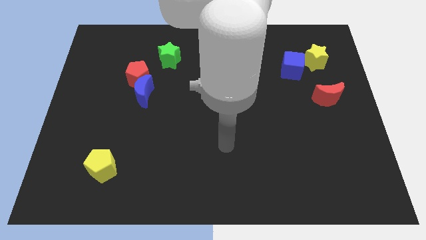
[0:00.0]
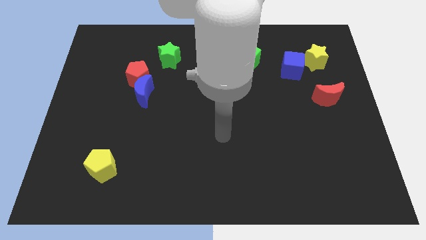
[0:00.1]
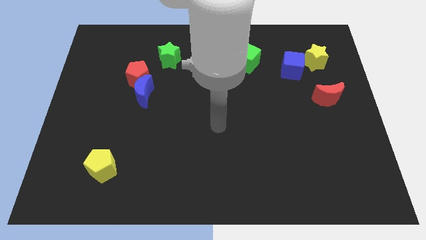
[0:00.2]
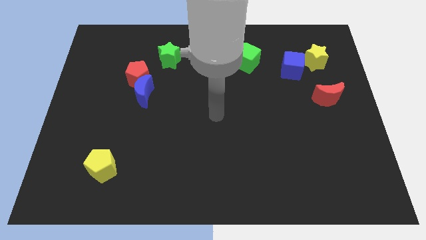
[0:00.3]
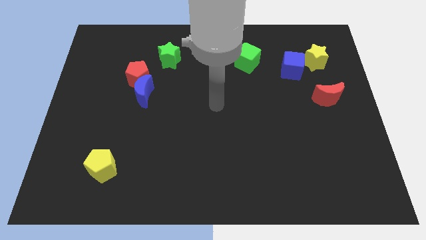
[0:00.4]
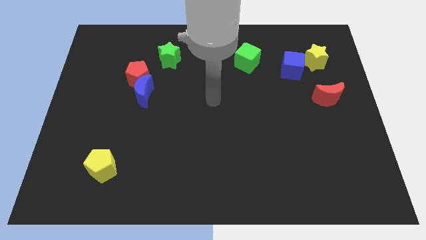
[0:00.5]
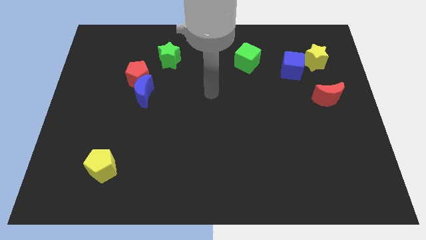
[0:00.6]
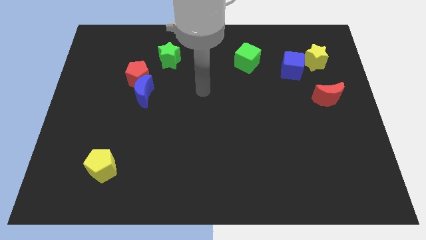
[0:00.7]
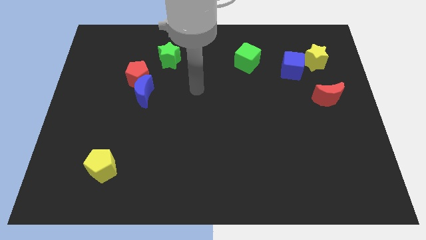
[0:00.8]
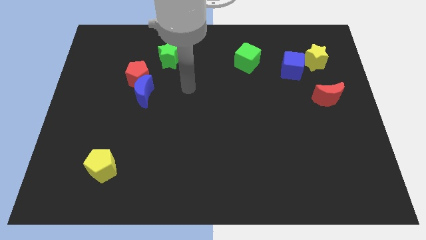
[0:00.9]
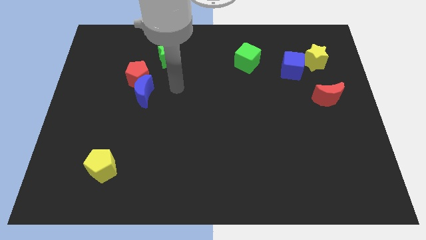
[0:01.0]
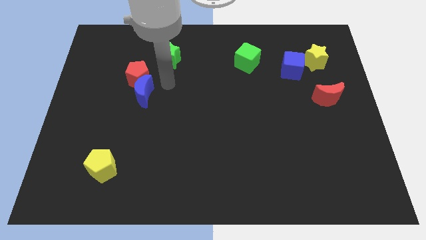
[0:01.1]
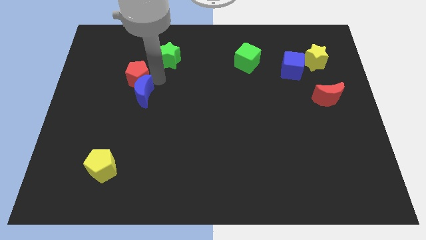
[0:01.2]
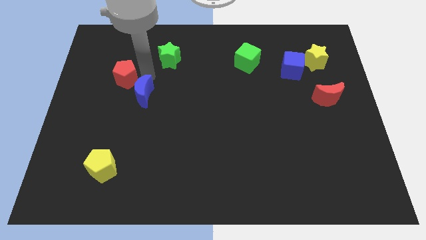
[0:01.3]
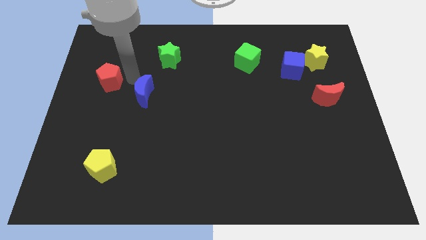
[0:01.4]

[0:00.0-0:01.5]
separate the blue moon from the red pentagon

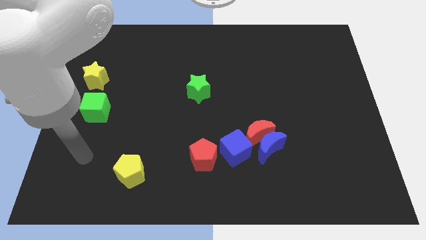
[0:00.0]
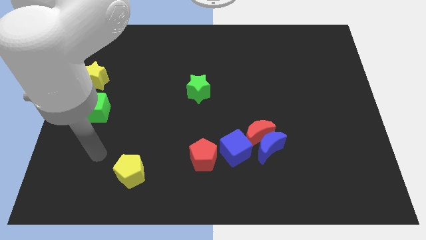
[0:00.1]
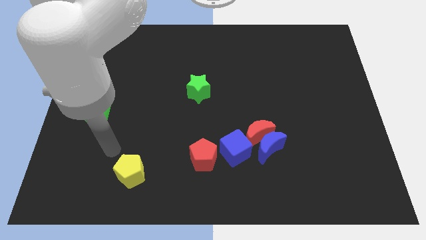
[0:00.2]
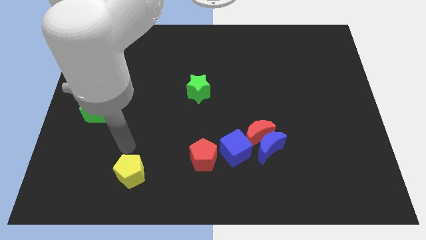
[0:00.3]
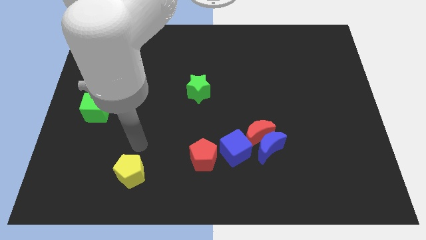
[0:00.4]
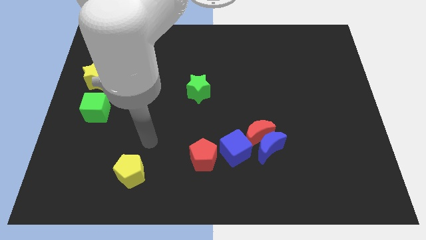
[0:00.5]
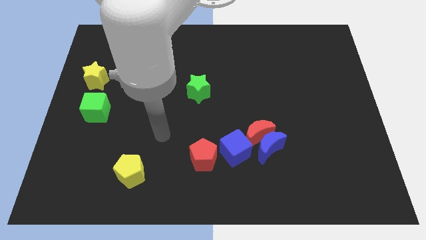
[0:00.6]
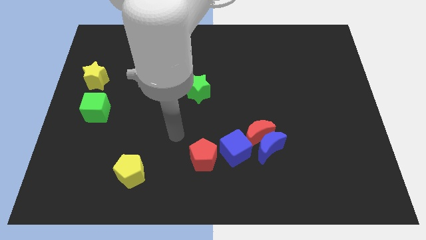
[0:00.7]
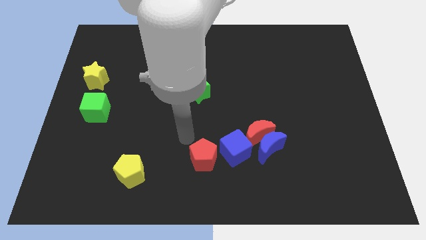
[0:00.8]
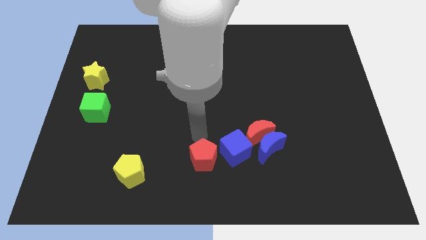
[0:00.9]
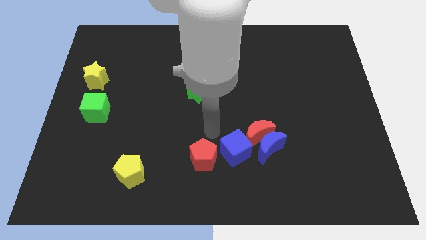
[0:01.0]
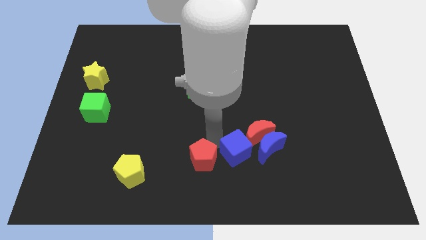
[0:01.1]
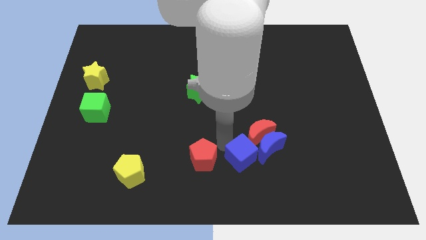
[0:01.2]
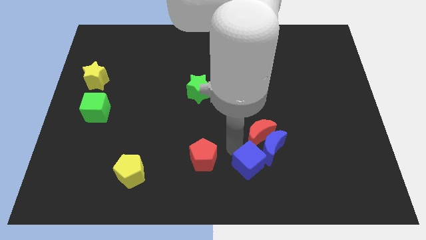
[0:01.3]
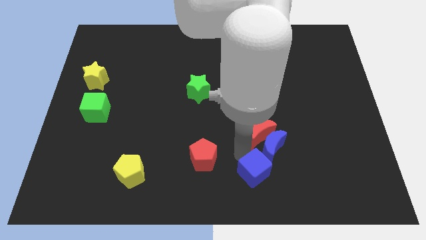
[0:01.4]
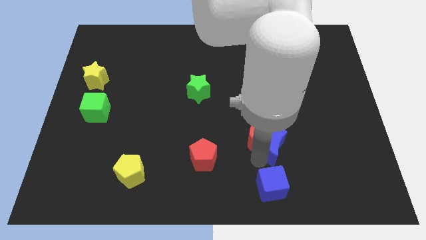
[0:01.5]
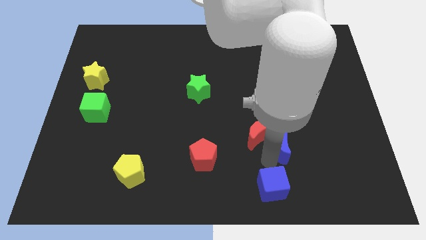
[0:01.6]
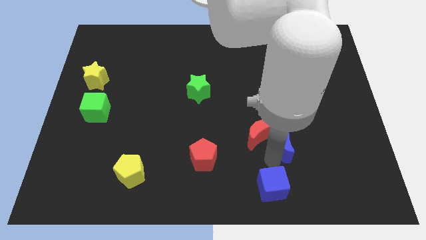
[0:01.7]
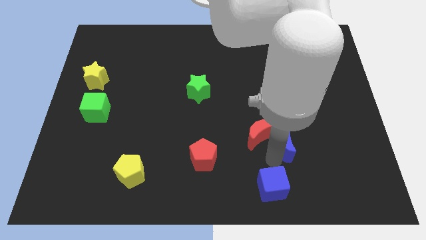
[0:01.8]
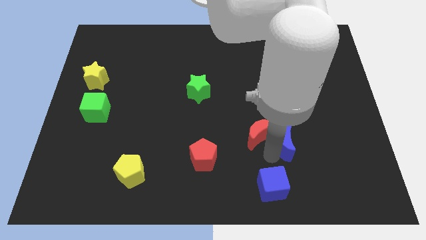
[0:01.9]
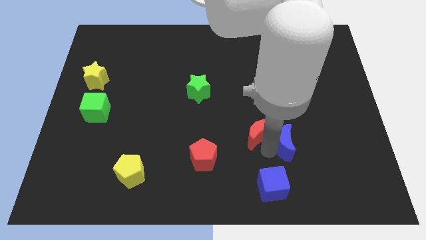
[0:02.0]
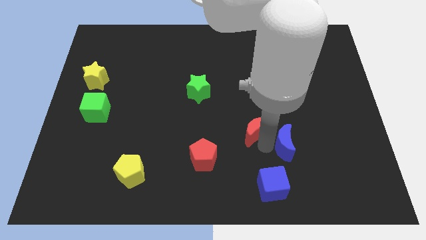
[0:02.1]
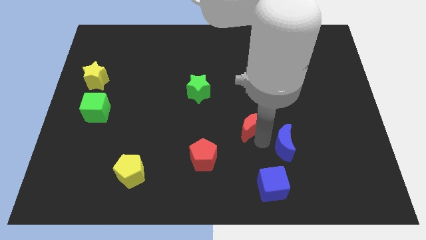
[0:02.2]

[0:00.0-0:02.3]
pull the red moon apart from the blue moon and blue cube

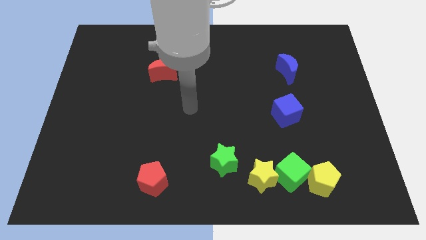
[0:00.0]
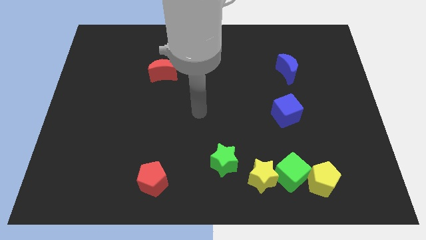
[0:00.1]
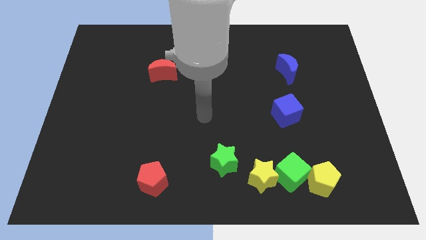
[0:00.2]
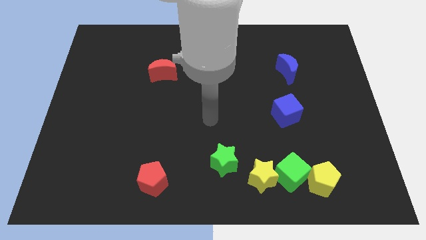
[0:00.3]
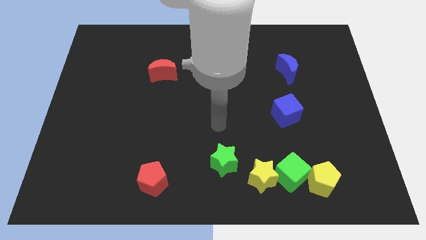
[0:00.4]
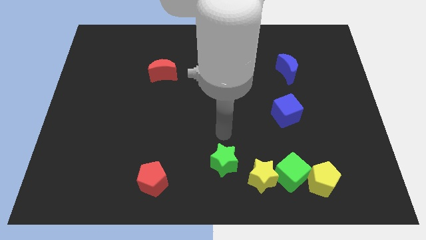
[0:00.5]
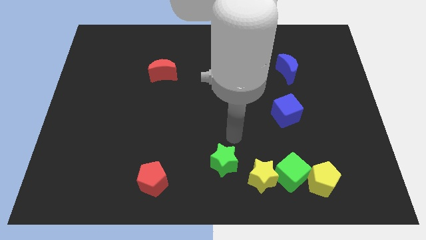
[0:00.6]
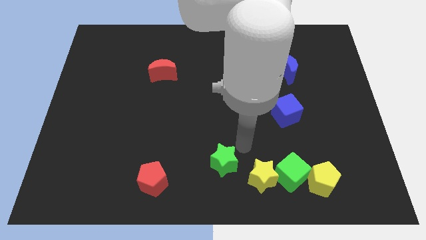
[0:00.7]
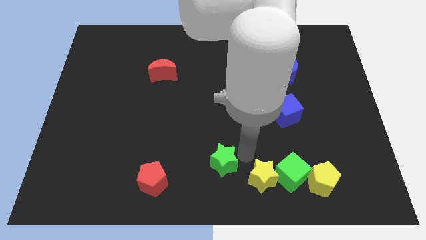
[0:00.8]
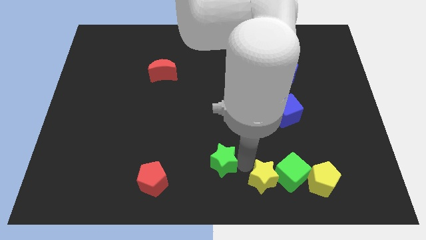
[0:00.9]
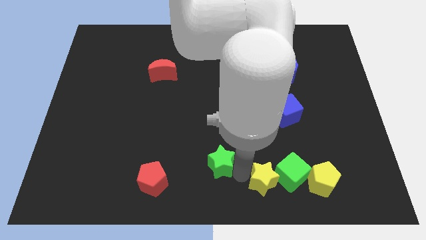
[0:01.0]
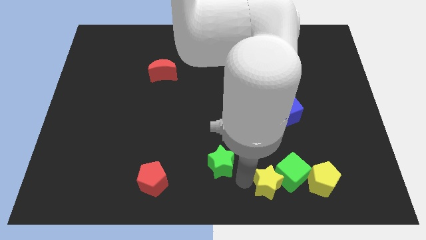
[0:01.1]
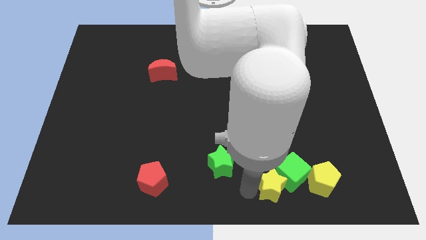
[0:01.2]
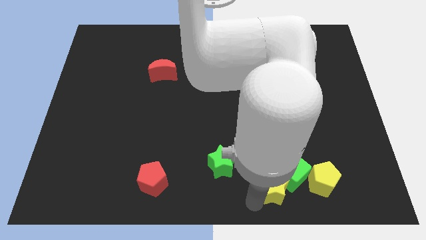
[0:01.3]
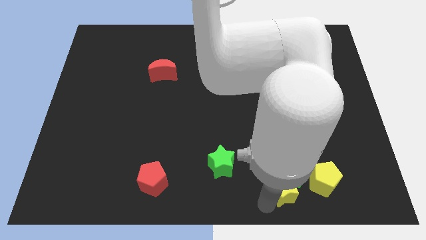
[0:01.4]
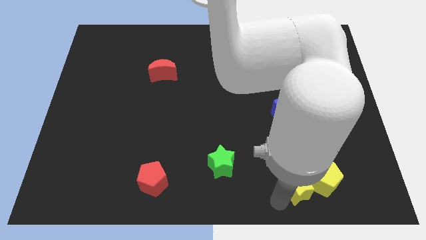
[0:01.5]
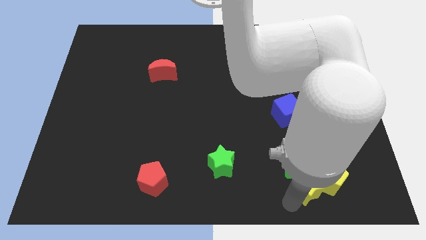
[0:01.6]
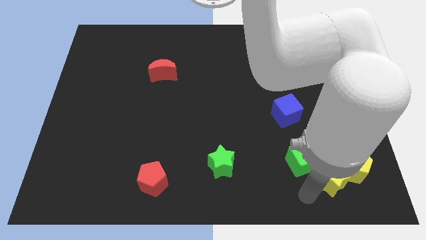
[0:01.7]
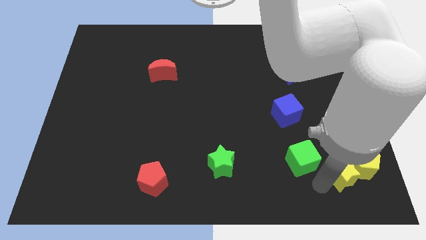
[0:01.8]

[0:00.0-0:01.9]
move the green cube away from the yellow star and yellow pentagon

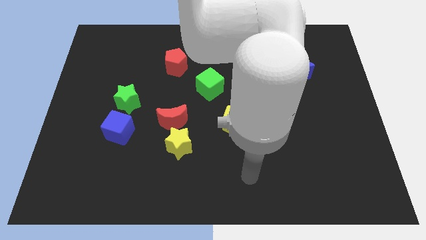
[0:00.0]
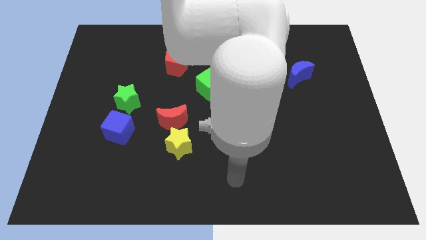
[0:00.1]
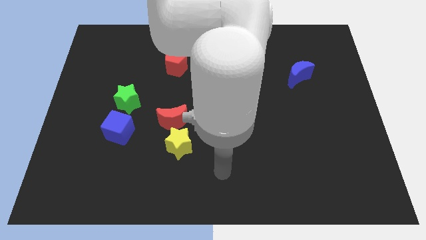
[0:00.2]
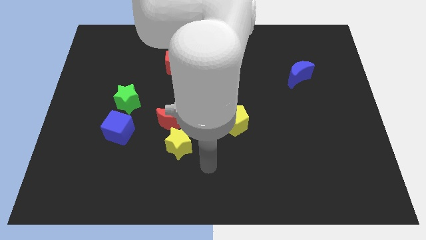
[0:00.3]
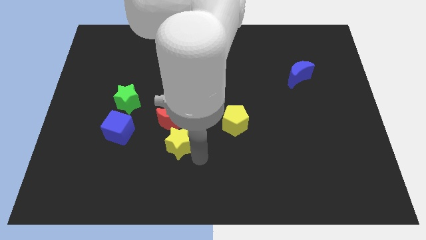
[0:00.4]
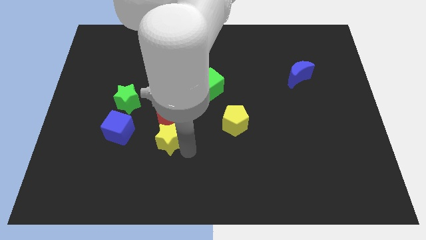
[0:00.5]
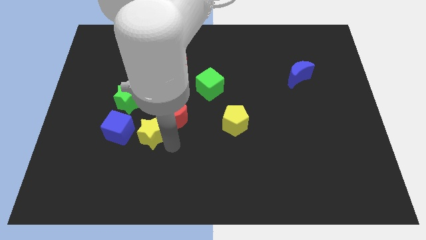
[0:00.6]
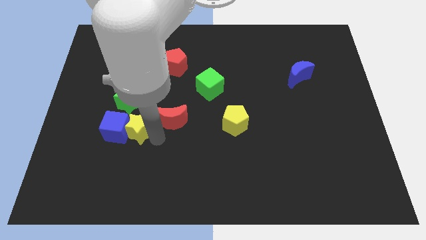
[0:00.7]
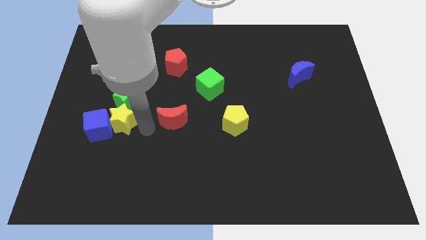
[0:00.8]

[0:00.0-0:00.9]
separate the red moon from the yellow star

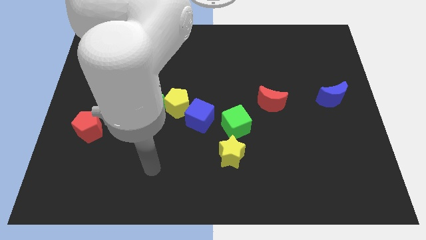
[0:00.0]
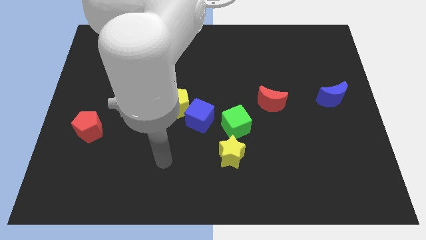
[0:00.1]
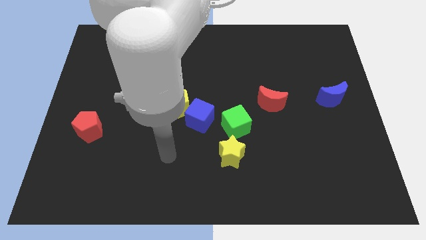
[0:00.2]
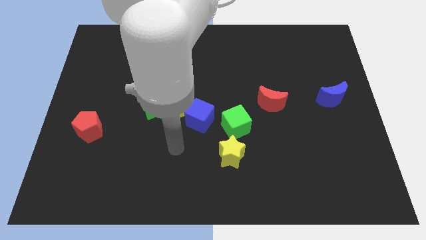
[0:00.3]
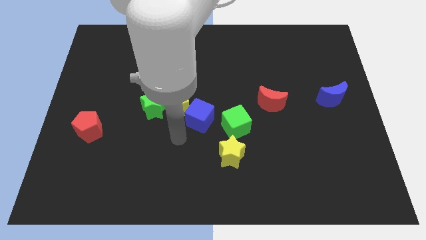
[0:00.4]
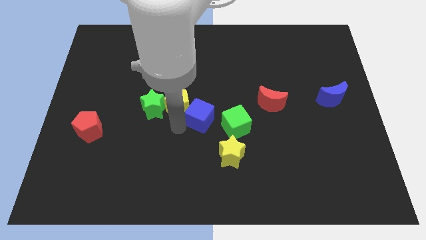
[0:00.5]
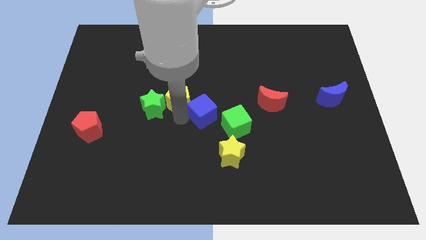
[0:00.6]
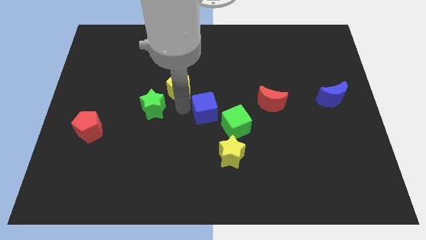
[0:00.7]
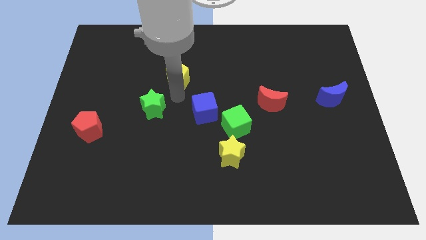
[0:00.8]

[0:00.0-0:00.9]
separate the green star from the yellow pentagon

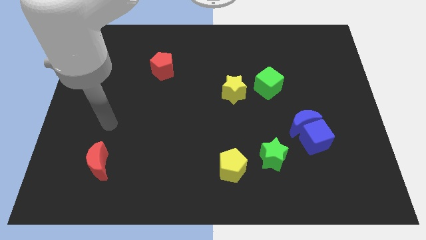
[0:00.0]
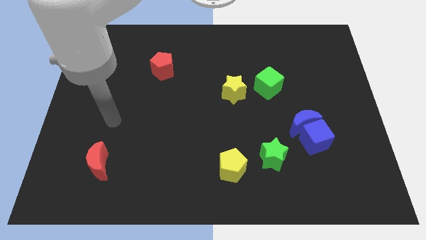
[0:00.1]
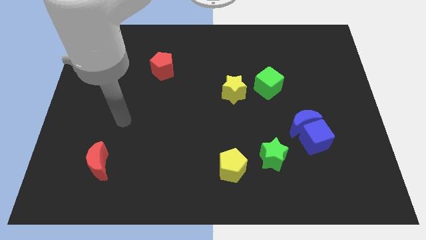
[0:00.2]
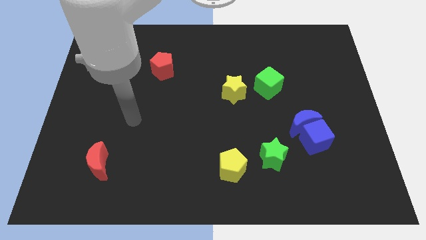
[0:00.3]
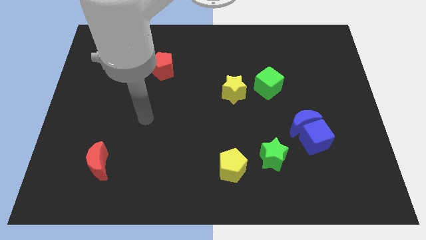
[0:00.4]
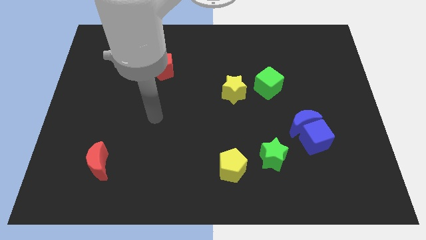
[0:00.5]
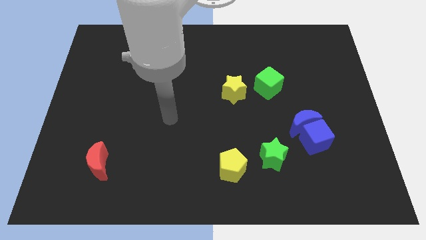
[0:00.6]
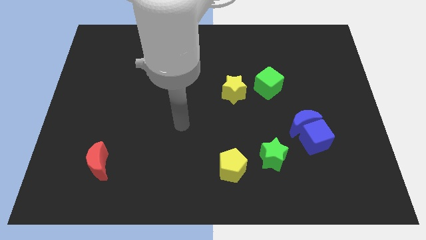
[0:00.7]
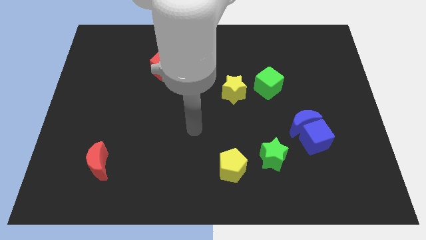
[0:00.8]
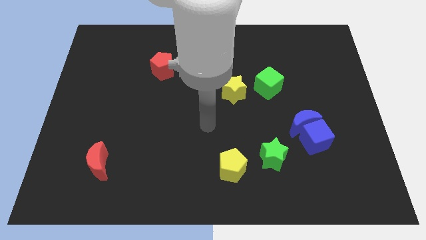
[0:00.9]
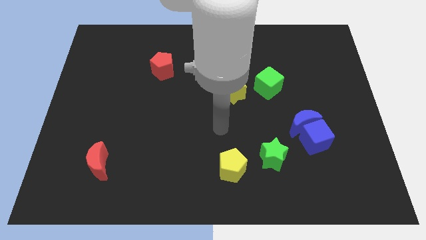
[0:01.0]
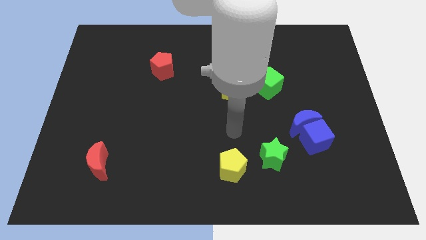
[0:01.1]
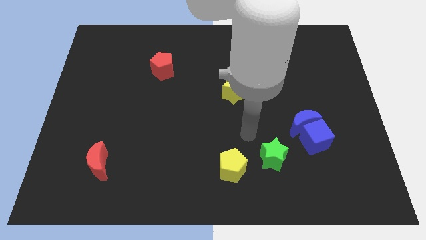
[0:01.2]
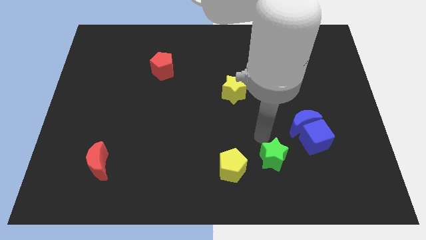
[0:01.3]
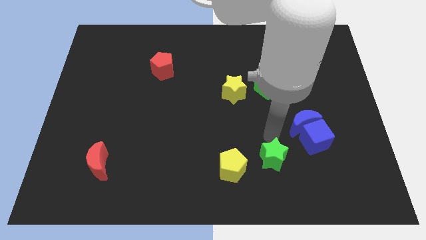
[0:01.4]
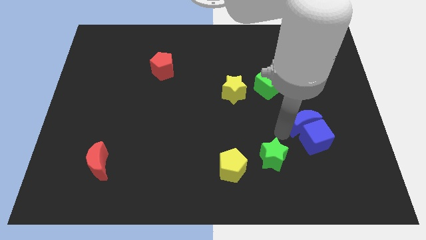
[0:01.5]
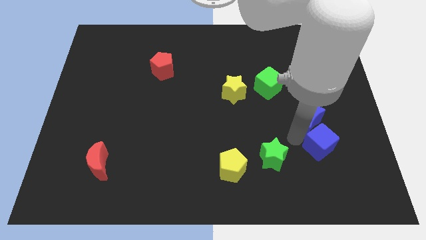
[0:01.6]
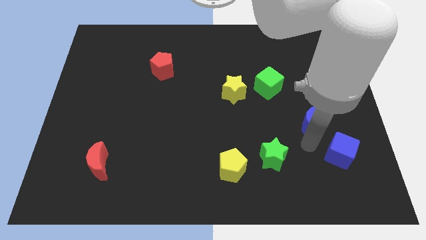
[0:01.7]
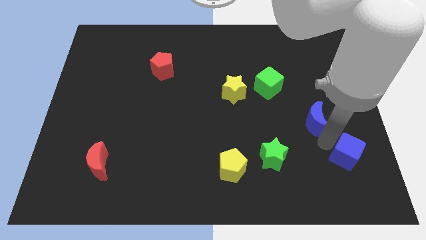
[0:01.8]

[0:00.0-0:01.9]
pull the blue moon apart from the blue cube
